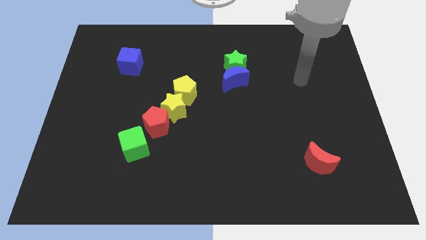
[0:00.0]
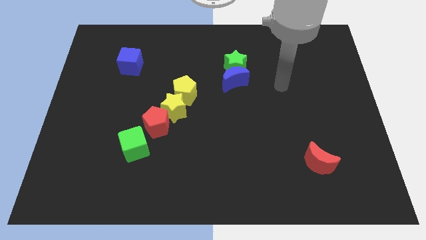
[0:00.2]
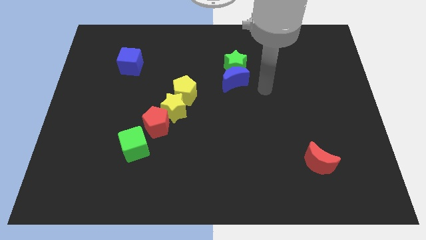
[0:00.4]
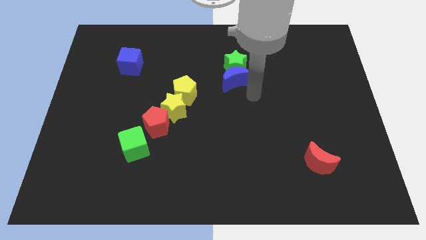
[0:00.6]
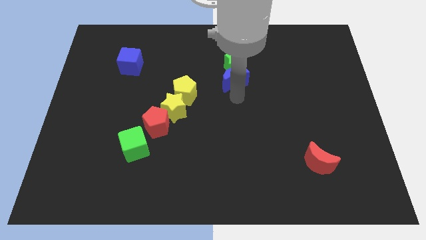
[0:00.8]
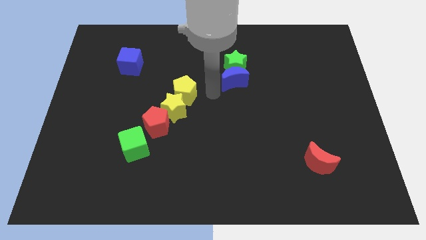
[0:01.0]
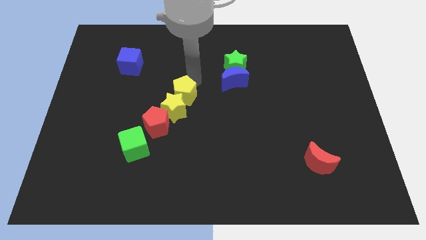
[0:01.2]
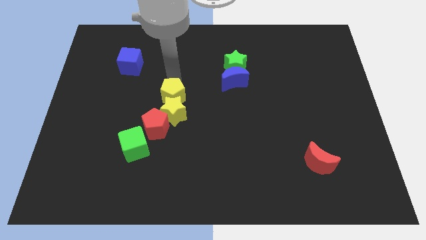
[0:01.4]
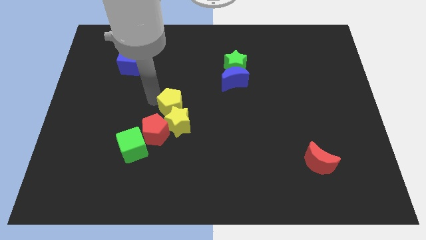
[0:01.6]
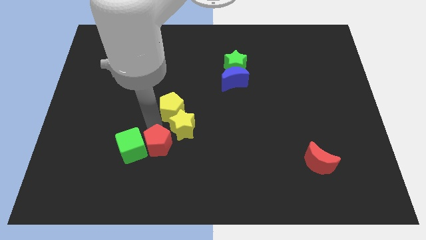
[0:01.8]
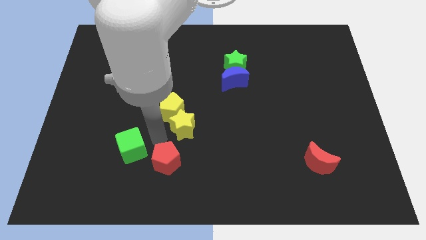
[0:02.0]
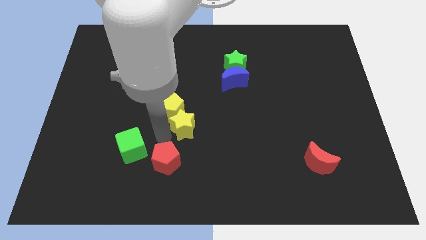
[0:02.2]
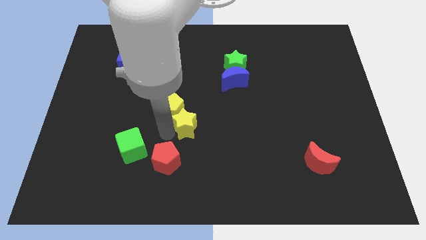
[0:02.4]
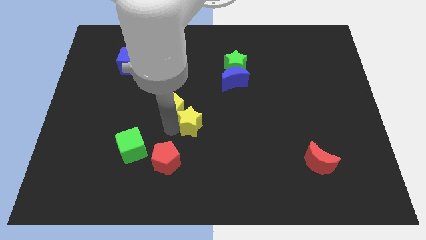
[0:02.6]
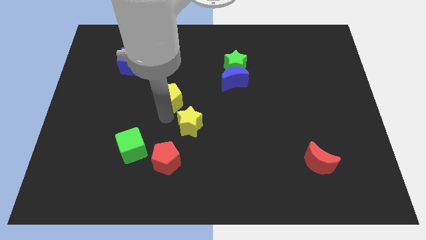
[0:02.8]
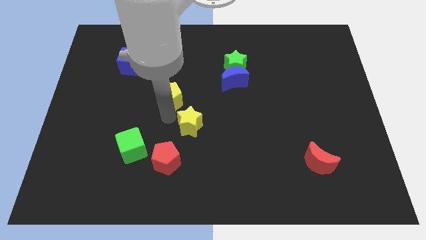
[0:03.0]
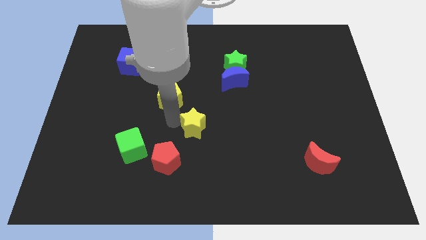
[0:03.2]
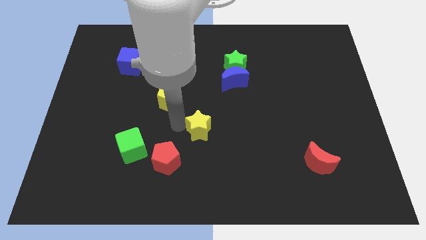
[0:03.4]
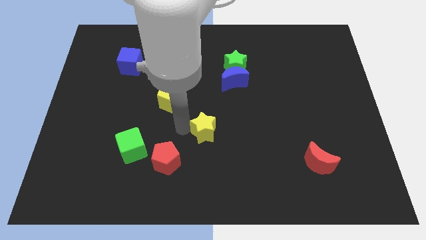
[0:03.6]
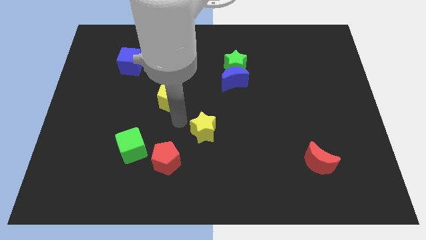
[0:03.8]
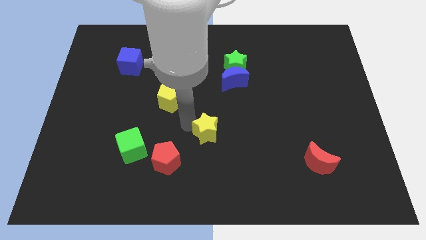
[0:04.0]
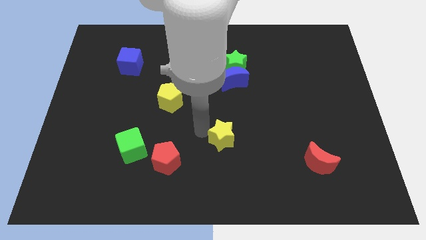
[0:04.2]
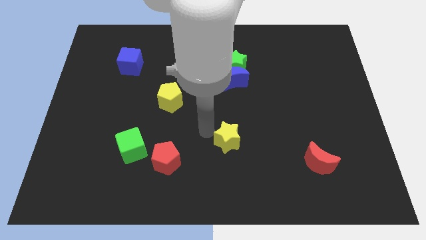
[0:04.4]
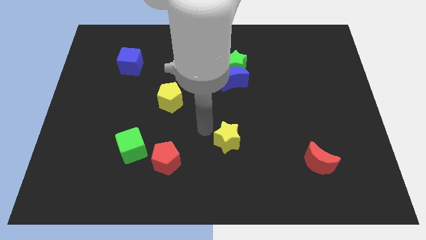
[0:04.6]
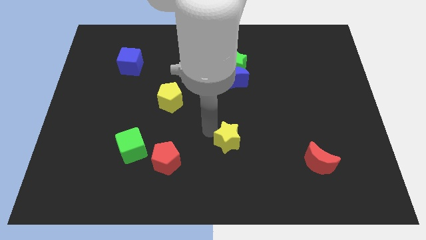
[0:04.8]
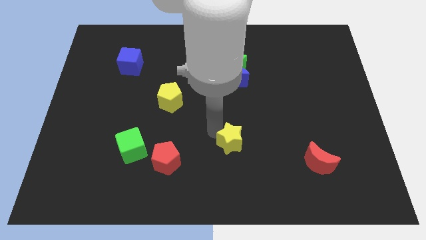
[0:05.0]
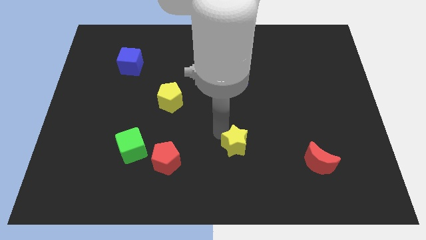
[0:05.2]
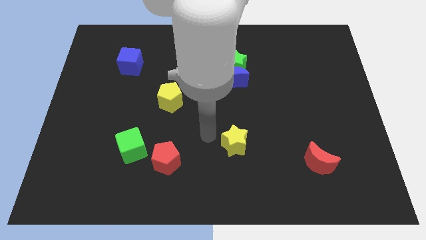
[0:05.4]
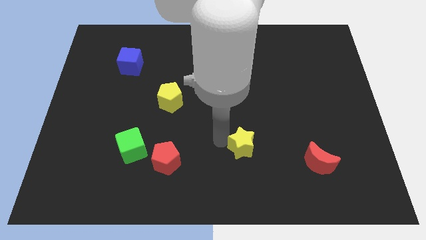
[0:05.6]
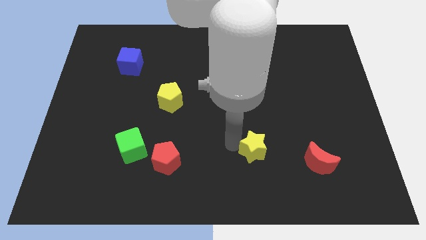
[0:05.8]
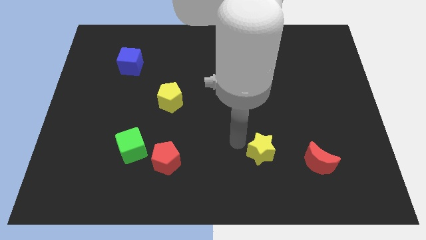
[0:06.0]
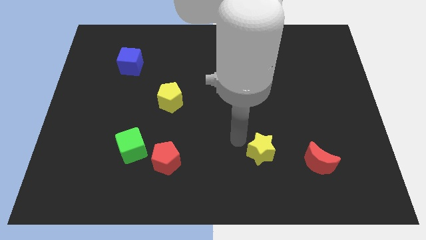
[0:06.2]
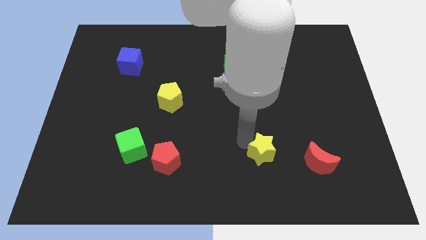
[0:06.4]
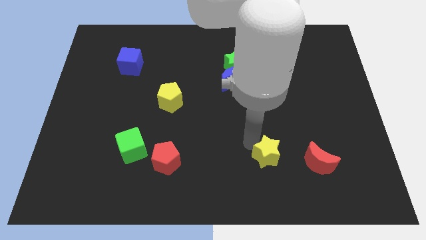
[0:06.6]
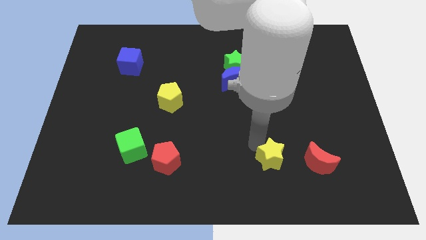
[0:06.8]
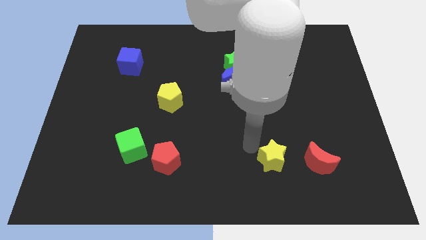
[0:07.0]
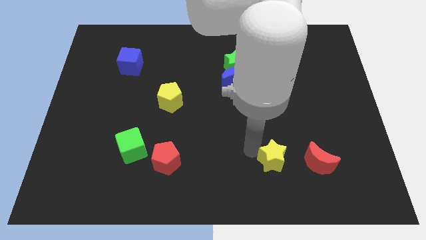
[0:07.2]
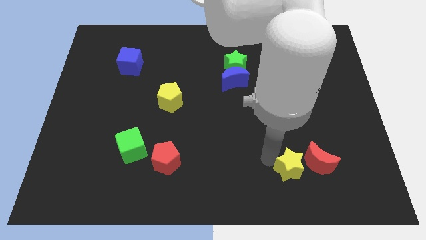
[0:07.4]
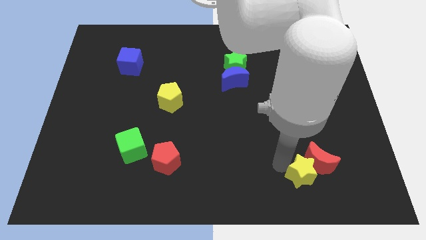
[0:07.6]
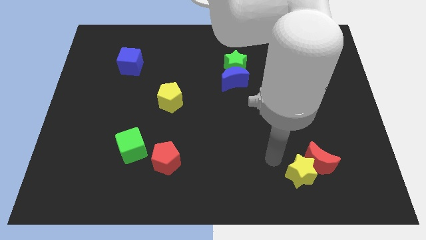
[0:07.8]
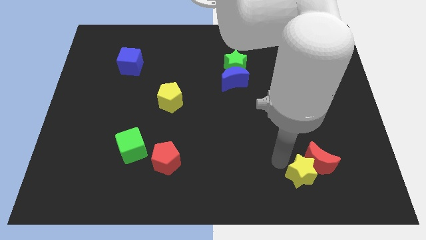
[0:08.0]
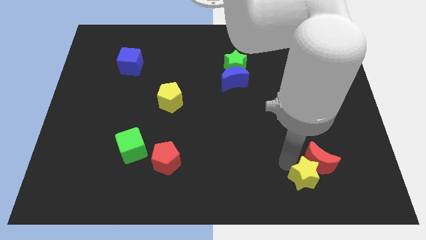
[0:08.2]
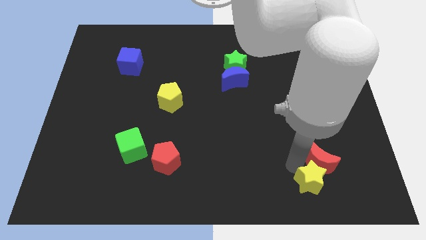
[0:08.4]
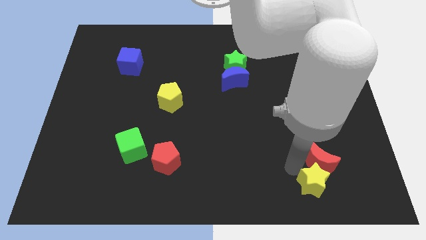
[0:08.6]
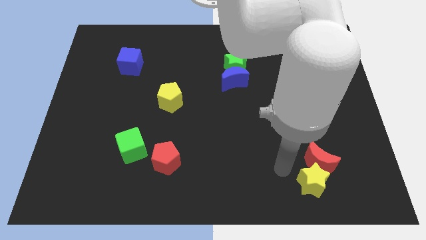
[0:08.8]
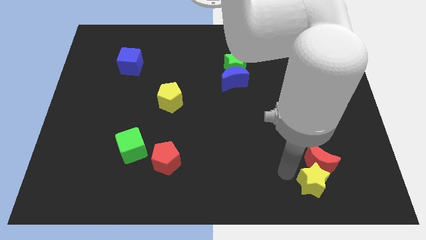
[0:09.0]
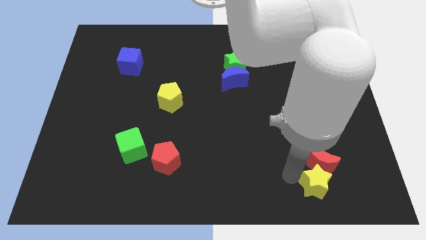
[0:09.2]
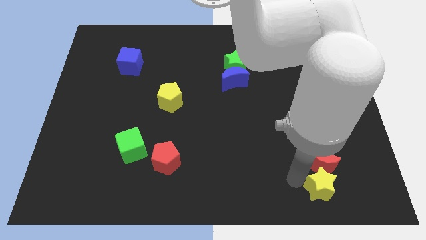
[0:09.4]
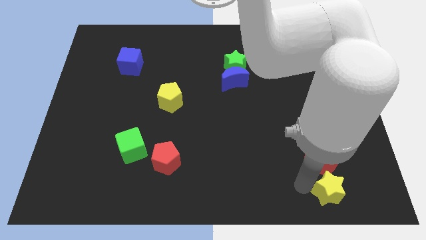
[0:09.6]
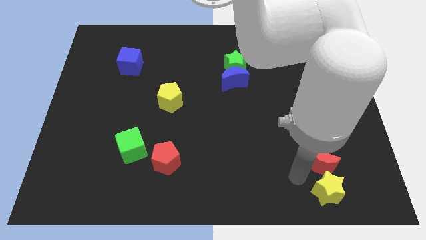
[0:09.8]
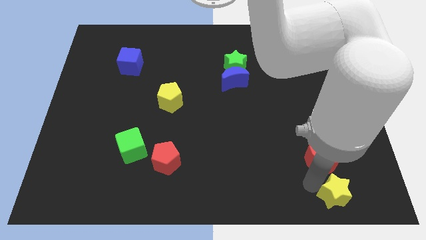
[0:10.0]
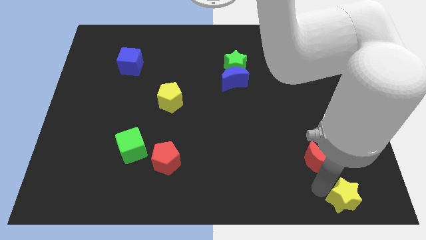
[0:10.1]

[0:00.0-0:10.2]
push the yellow star to the bottom right

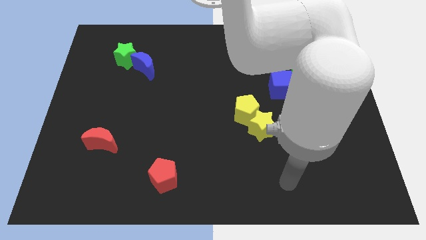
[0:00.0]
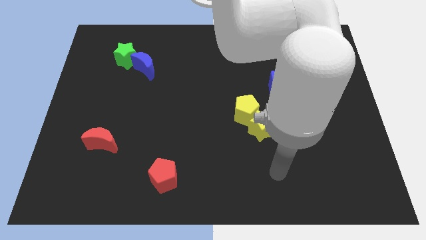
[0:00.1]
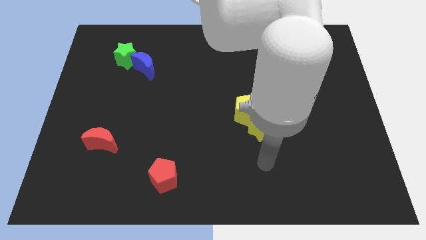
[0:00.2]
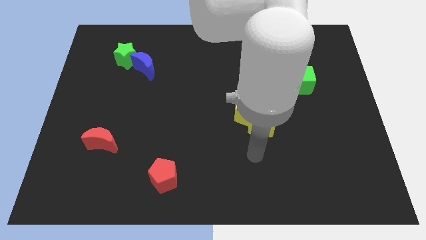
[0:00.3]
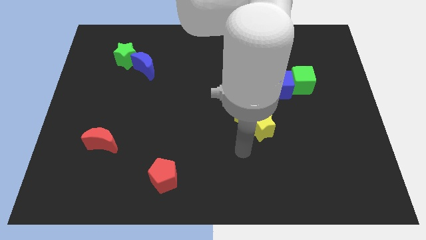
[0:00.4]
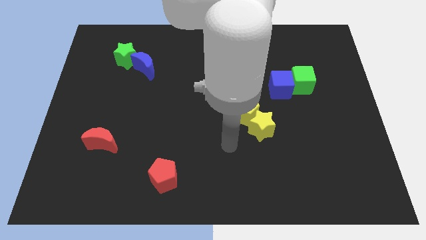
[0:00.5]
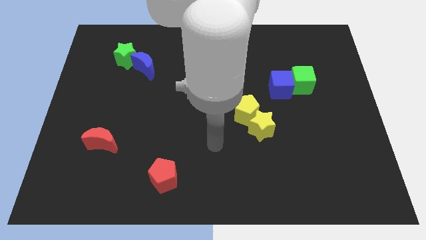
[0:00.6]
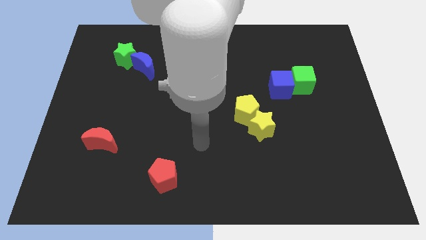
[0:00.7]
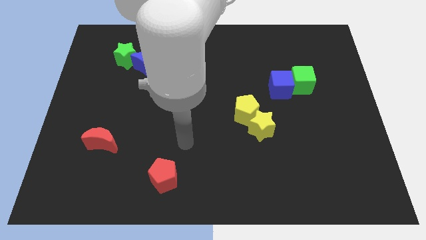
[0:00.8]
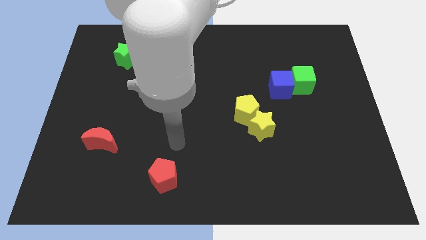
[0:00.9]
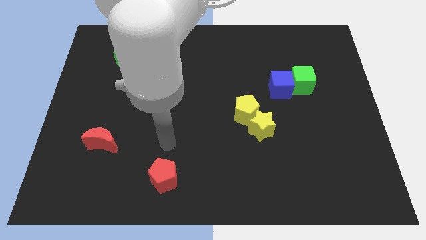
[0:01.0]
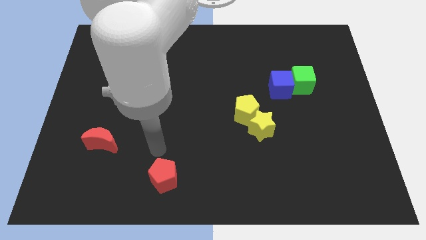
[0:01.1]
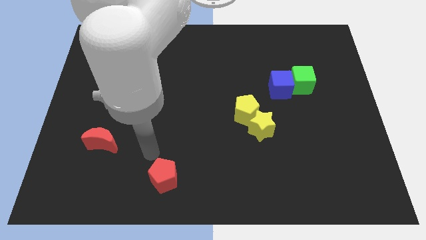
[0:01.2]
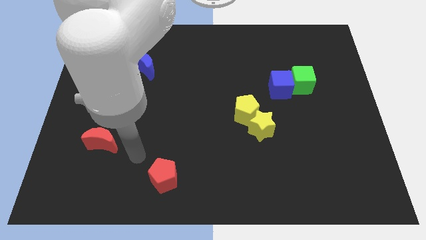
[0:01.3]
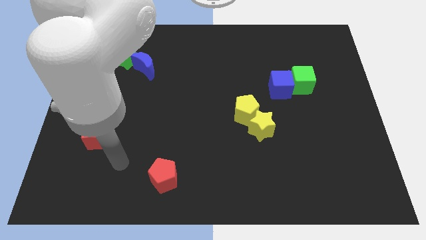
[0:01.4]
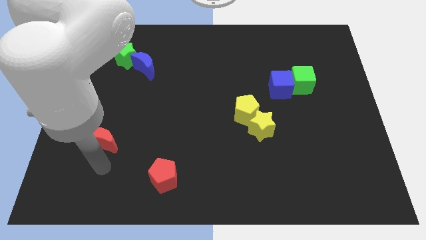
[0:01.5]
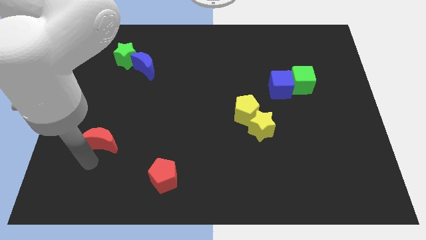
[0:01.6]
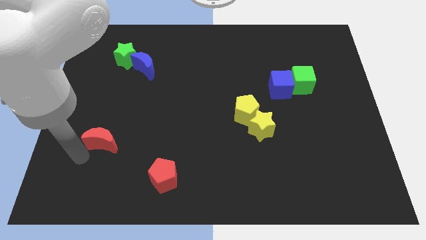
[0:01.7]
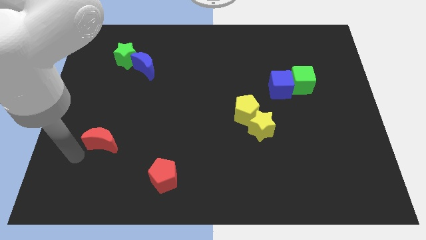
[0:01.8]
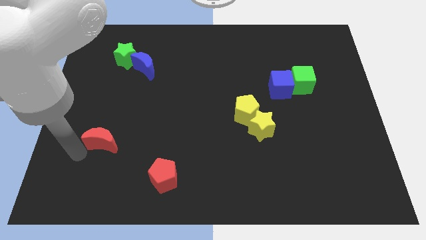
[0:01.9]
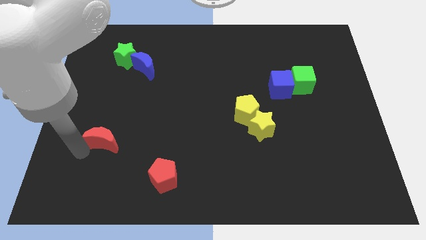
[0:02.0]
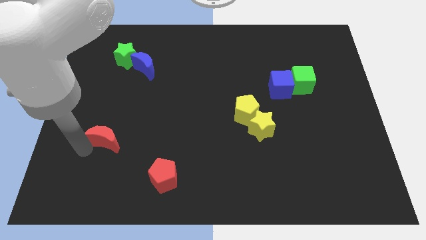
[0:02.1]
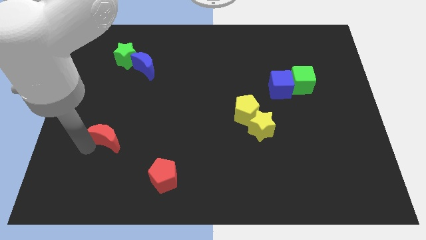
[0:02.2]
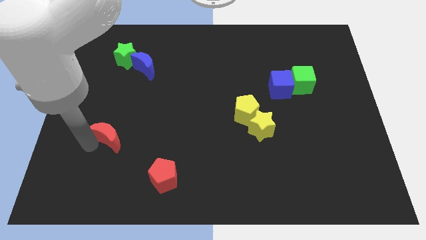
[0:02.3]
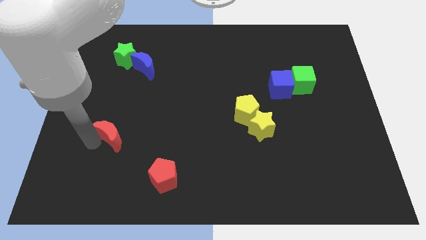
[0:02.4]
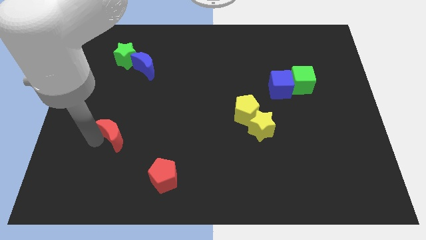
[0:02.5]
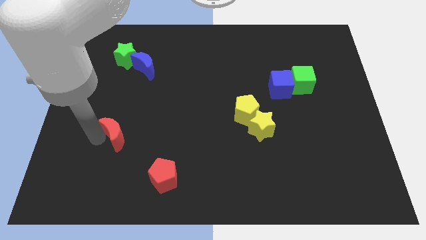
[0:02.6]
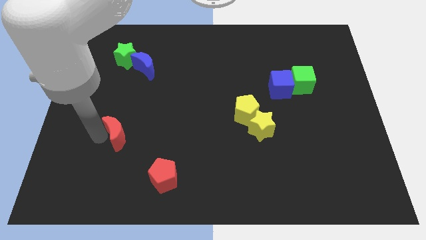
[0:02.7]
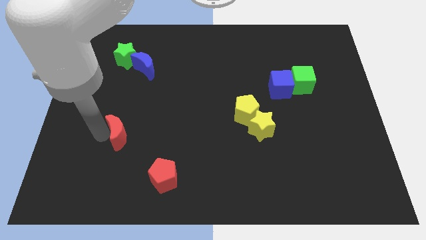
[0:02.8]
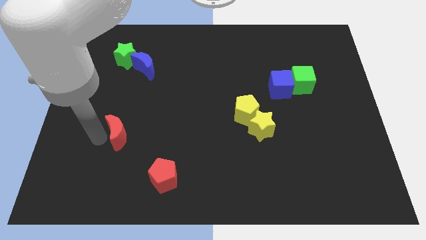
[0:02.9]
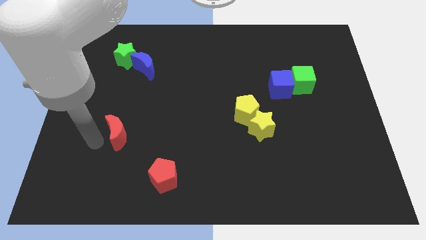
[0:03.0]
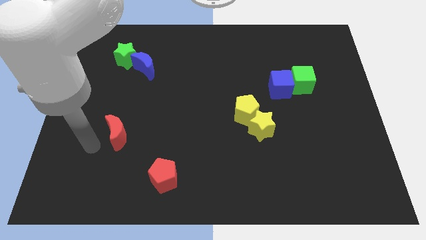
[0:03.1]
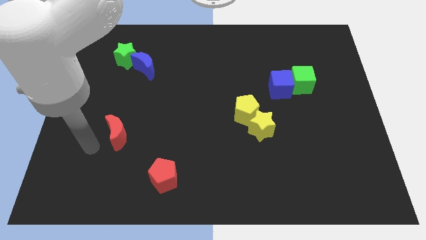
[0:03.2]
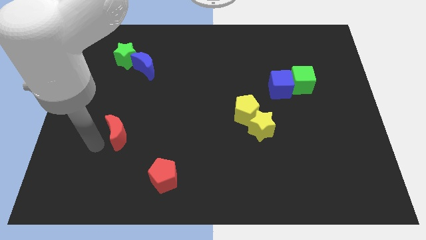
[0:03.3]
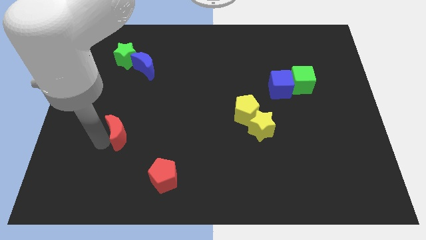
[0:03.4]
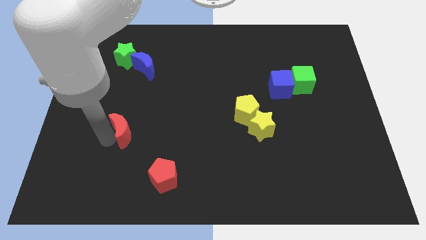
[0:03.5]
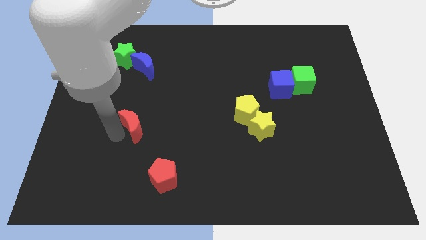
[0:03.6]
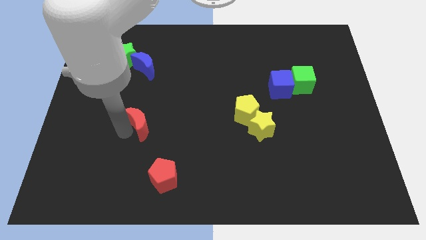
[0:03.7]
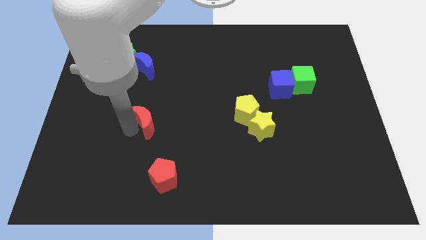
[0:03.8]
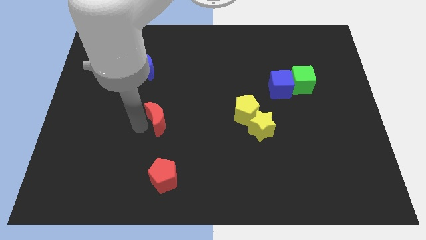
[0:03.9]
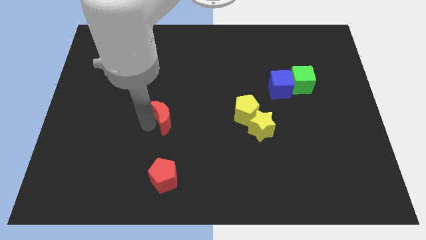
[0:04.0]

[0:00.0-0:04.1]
move the red moon to the center of the board
